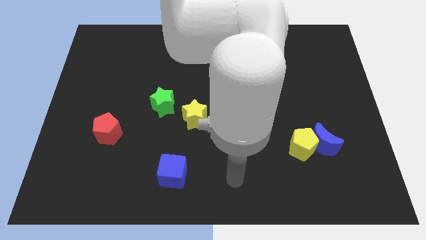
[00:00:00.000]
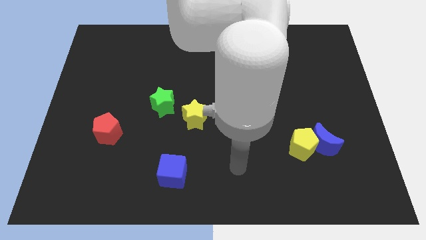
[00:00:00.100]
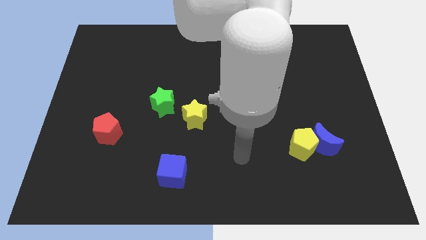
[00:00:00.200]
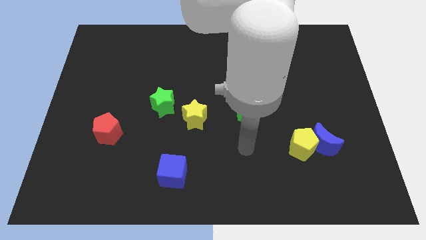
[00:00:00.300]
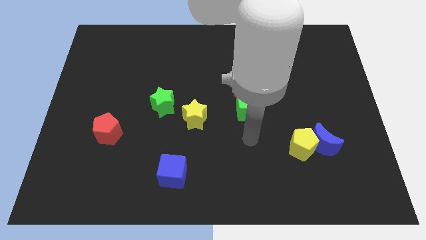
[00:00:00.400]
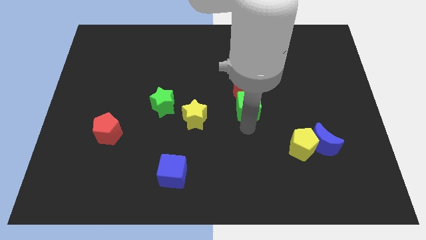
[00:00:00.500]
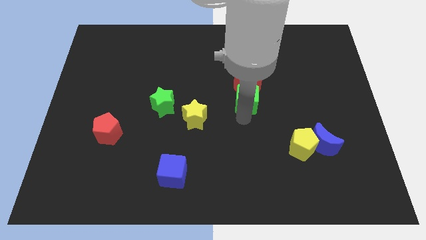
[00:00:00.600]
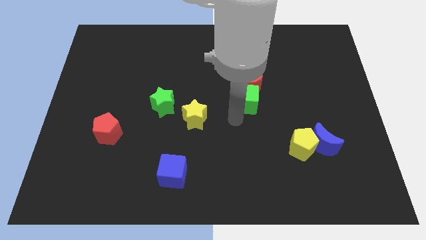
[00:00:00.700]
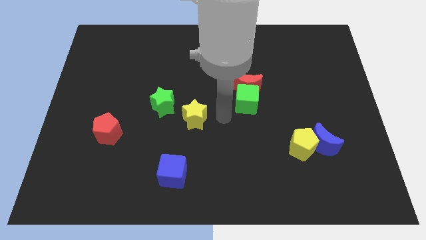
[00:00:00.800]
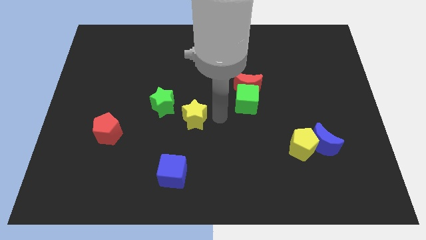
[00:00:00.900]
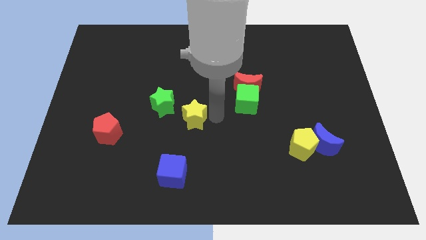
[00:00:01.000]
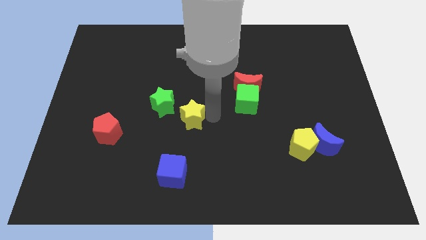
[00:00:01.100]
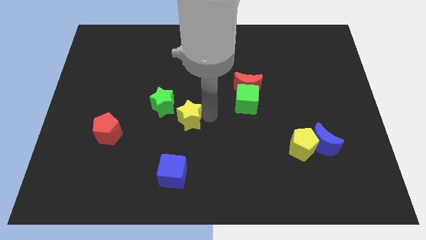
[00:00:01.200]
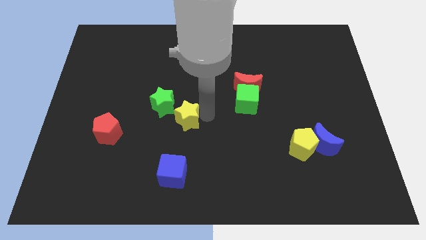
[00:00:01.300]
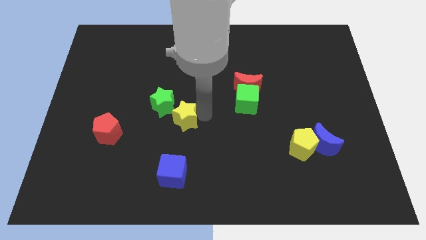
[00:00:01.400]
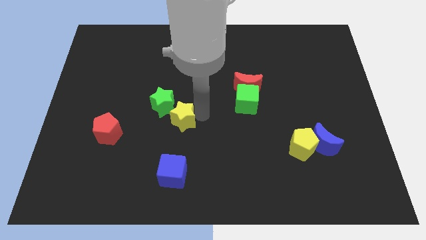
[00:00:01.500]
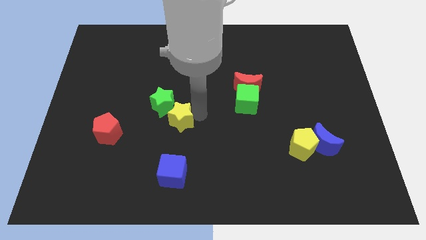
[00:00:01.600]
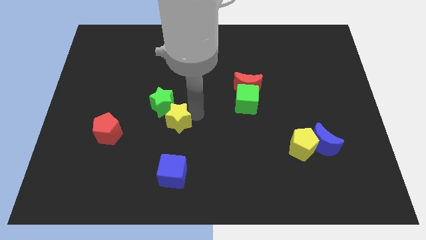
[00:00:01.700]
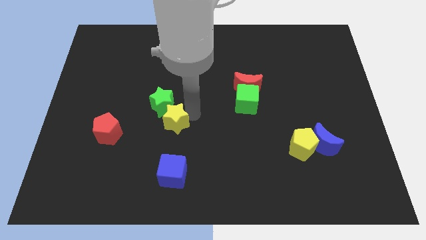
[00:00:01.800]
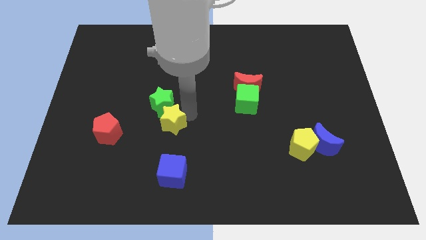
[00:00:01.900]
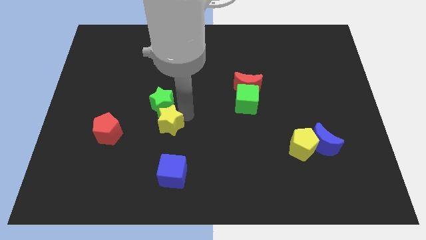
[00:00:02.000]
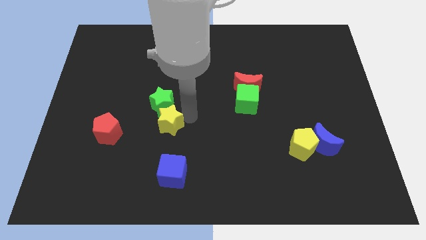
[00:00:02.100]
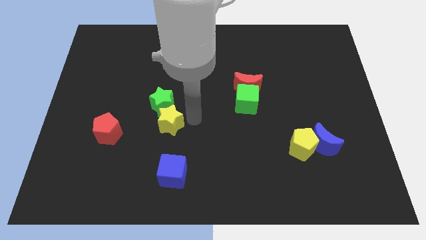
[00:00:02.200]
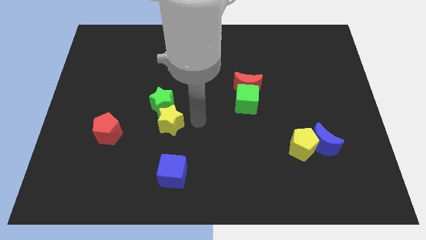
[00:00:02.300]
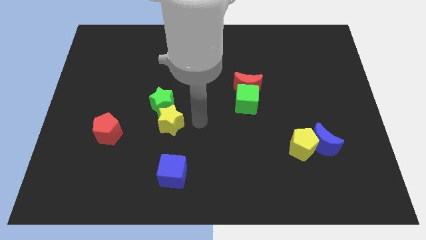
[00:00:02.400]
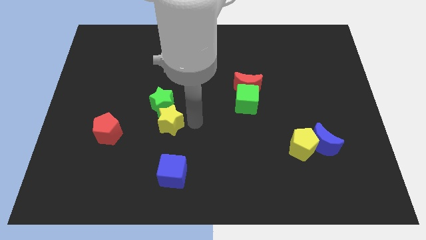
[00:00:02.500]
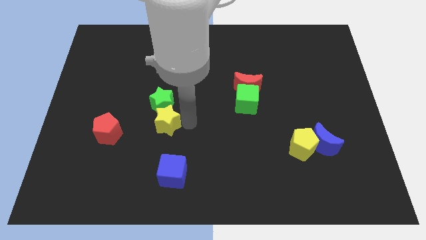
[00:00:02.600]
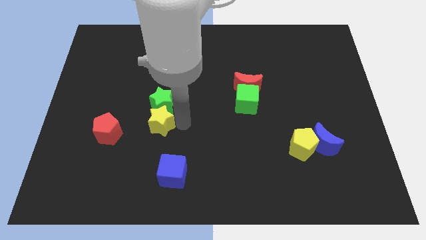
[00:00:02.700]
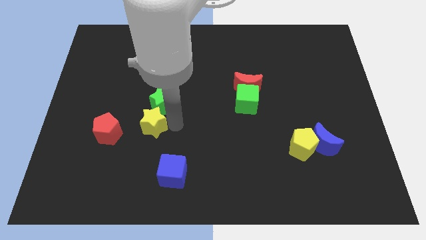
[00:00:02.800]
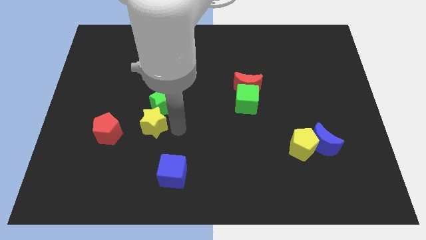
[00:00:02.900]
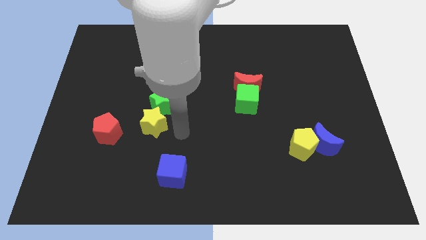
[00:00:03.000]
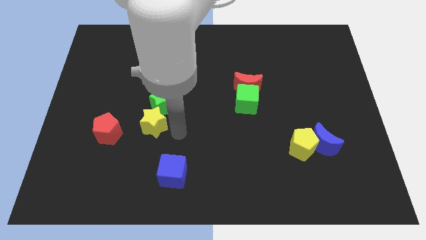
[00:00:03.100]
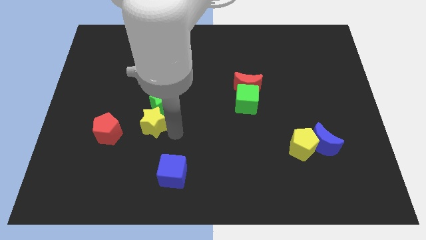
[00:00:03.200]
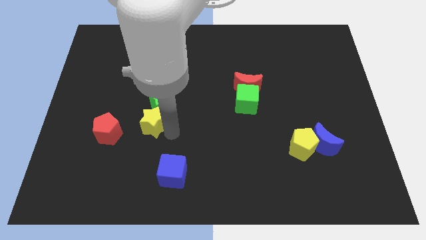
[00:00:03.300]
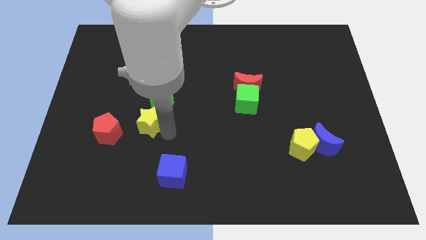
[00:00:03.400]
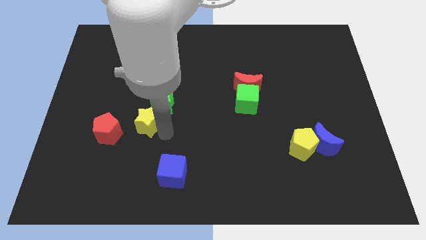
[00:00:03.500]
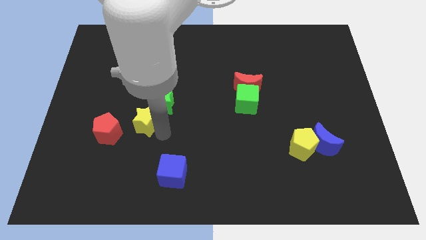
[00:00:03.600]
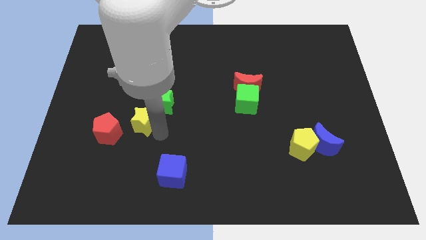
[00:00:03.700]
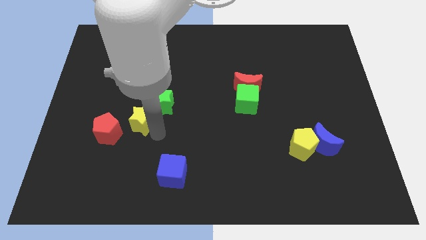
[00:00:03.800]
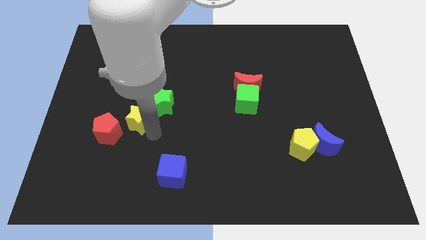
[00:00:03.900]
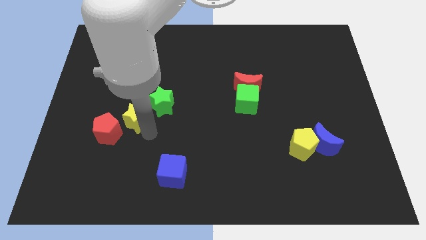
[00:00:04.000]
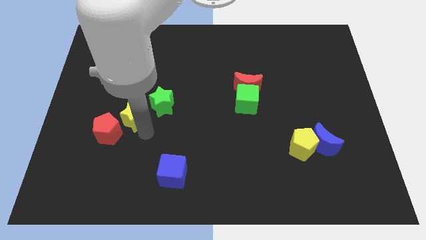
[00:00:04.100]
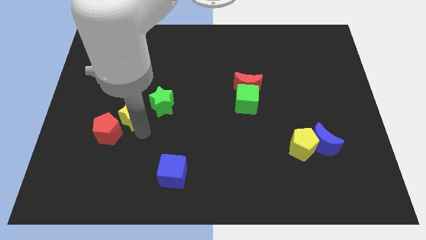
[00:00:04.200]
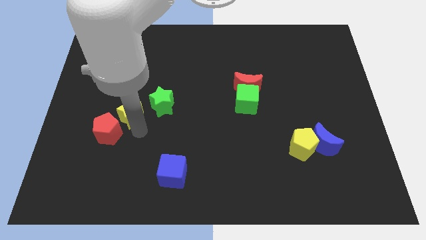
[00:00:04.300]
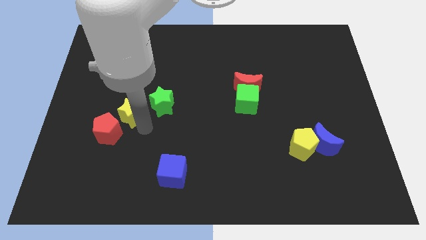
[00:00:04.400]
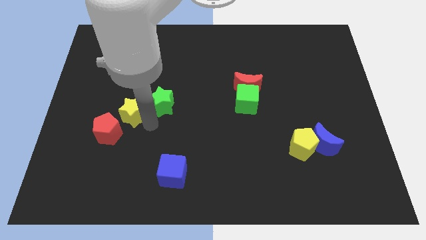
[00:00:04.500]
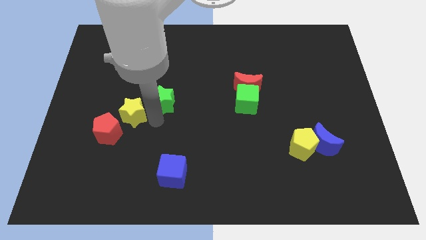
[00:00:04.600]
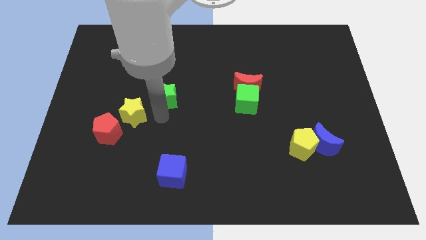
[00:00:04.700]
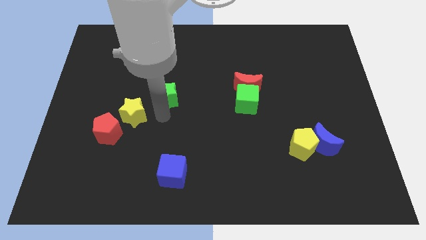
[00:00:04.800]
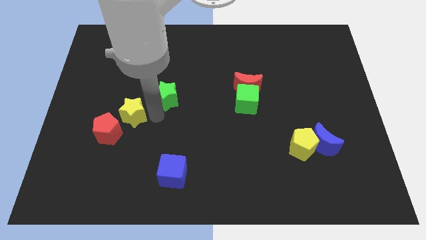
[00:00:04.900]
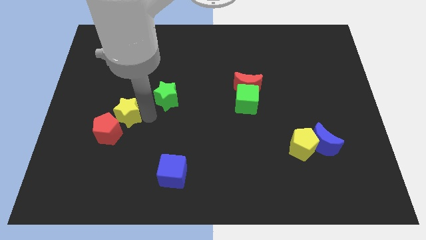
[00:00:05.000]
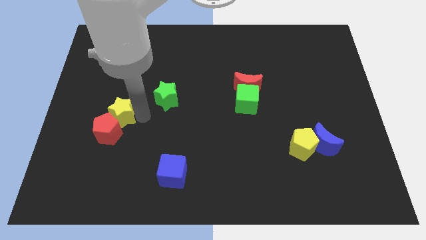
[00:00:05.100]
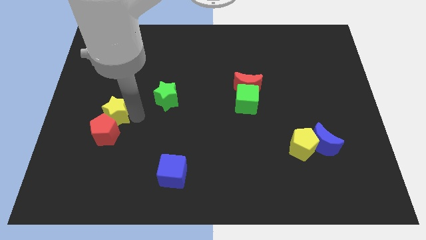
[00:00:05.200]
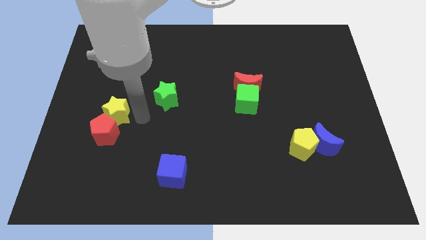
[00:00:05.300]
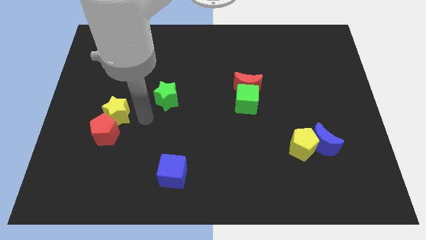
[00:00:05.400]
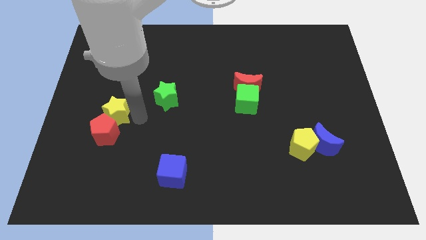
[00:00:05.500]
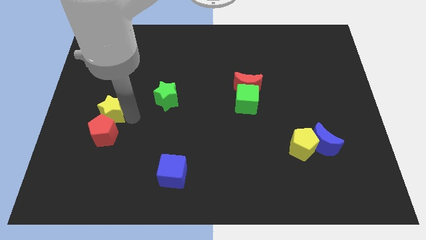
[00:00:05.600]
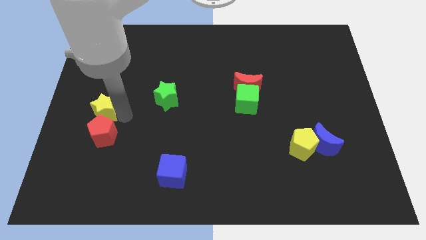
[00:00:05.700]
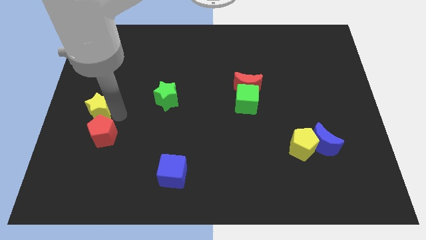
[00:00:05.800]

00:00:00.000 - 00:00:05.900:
push the yellow star to the left side of the board

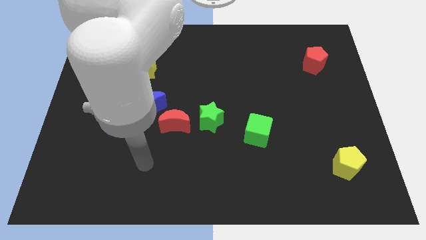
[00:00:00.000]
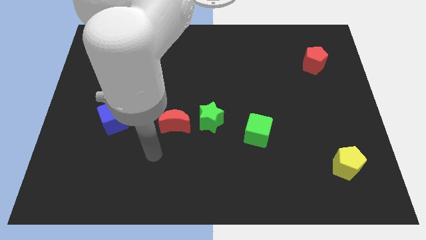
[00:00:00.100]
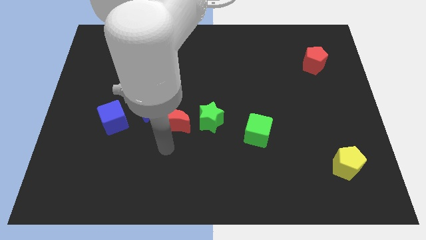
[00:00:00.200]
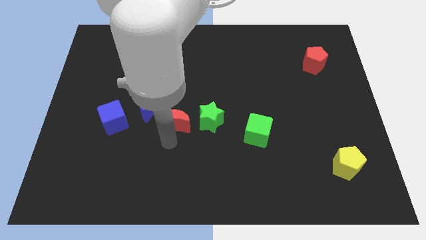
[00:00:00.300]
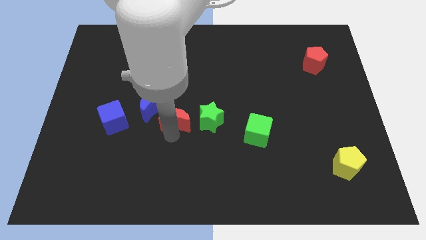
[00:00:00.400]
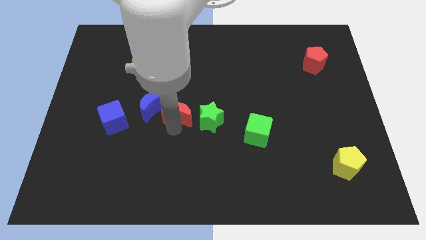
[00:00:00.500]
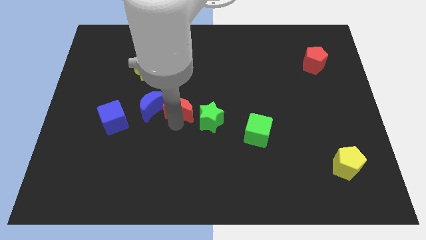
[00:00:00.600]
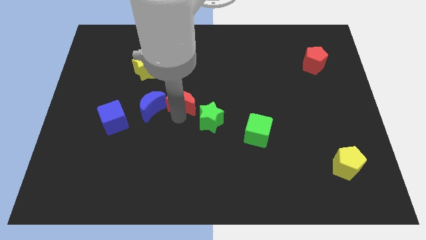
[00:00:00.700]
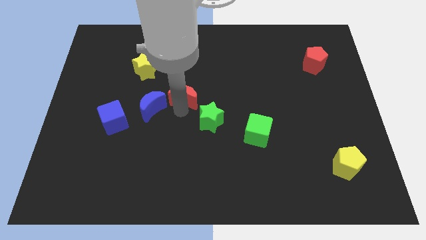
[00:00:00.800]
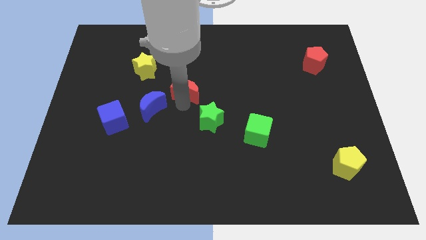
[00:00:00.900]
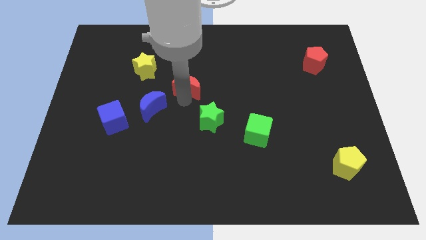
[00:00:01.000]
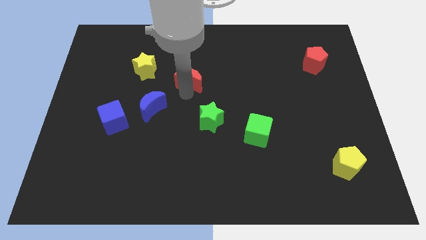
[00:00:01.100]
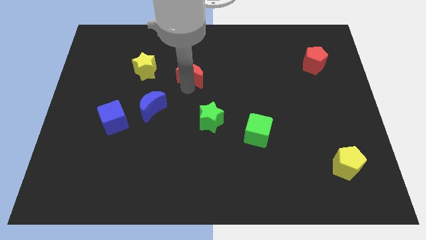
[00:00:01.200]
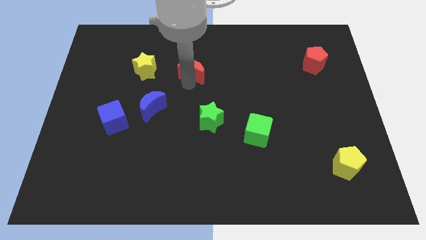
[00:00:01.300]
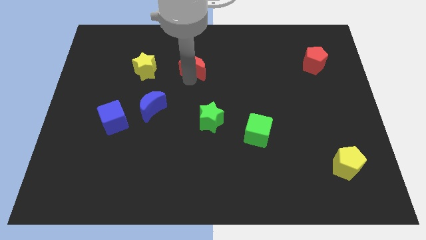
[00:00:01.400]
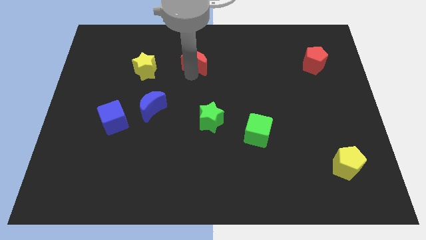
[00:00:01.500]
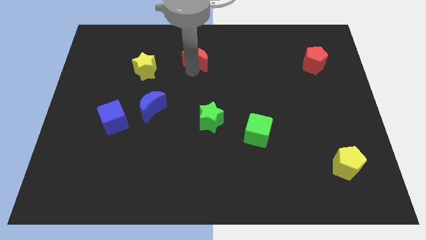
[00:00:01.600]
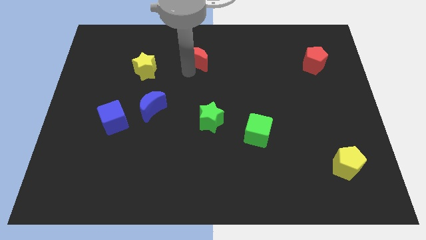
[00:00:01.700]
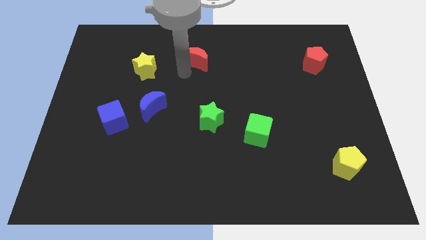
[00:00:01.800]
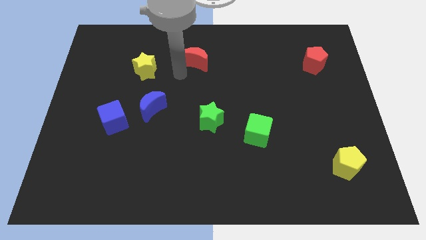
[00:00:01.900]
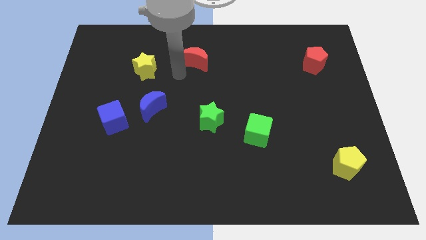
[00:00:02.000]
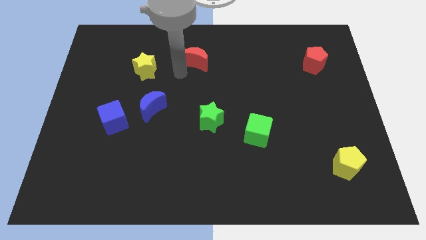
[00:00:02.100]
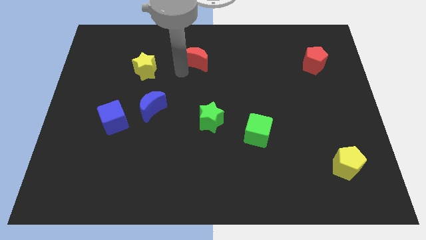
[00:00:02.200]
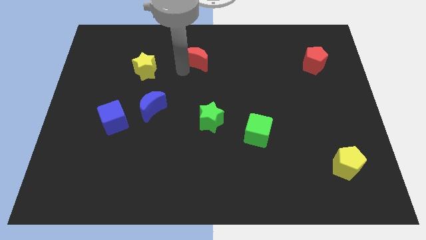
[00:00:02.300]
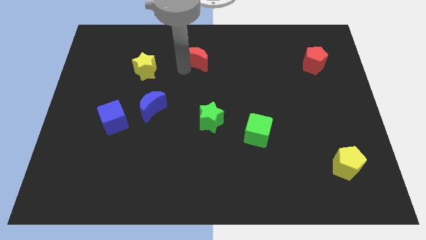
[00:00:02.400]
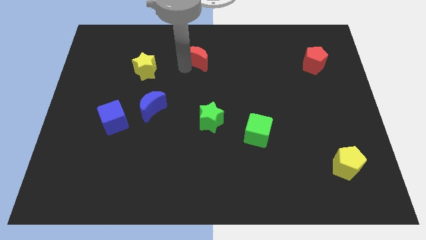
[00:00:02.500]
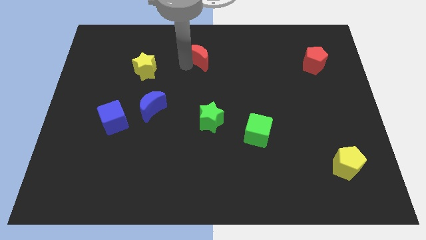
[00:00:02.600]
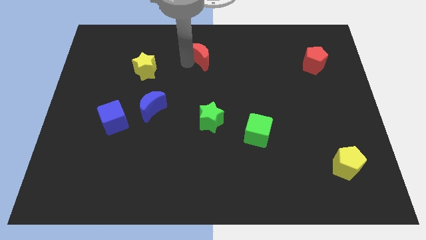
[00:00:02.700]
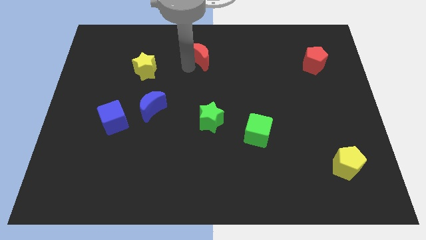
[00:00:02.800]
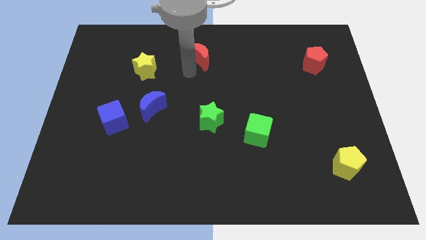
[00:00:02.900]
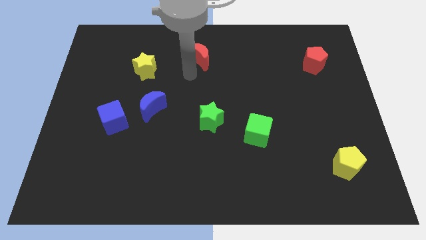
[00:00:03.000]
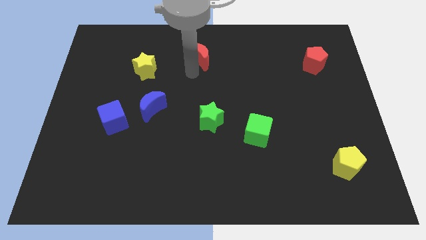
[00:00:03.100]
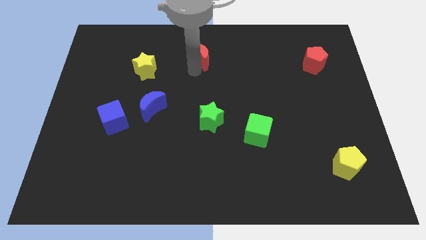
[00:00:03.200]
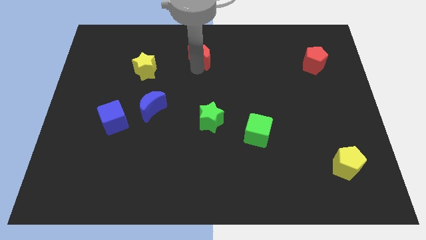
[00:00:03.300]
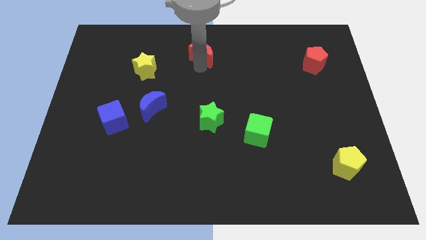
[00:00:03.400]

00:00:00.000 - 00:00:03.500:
push the red moon to the towards your base
